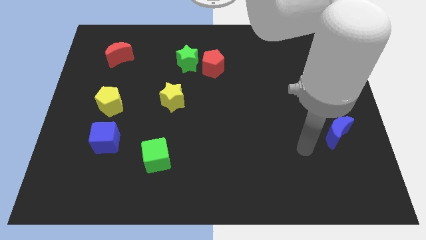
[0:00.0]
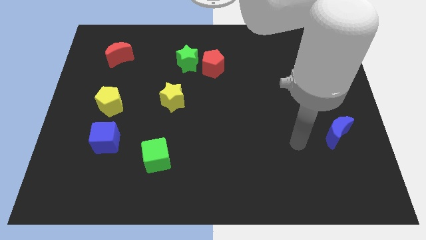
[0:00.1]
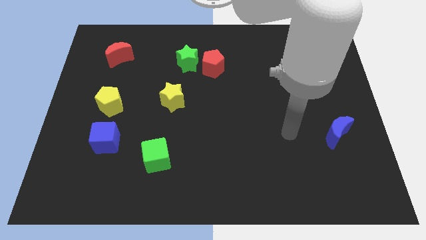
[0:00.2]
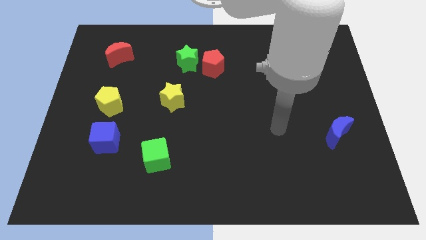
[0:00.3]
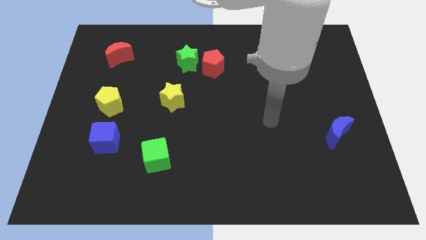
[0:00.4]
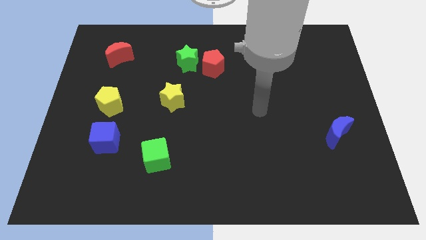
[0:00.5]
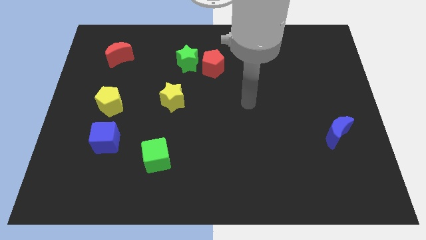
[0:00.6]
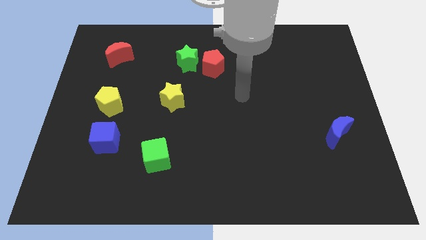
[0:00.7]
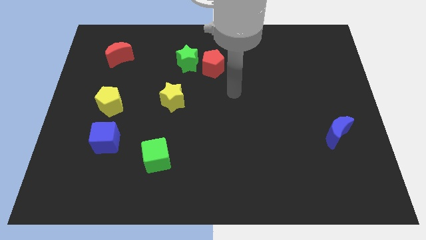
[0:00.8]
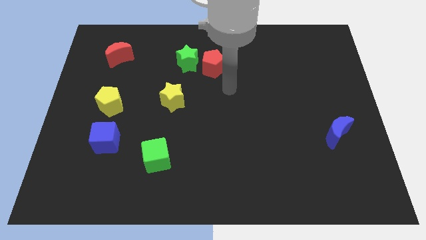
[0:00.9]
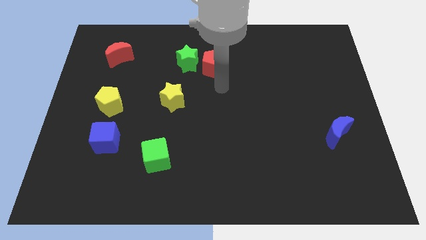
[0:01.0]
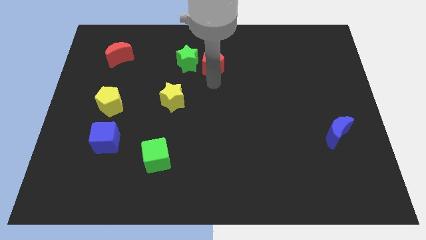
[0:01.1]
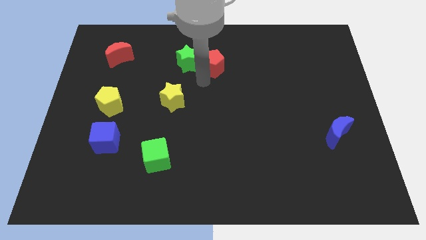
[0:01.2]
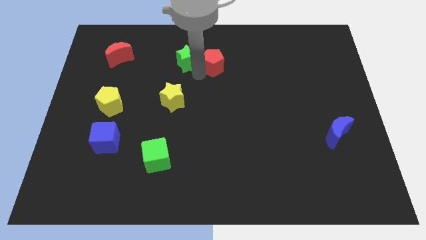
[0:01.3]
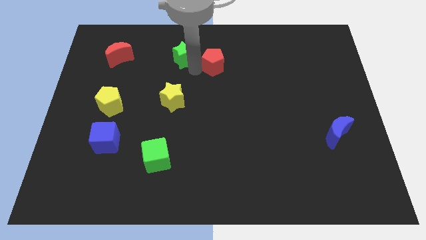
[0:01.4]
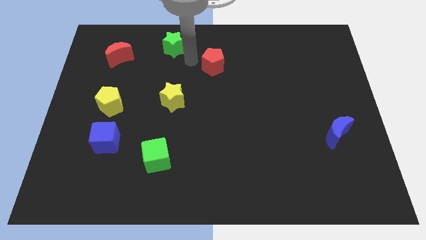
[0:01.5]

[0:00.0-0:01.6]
separate the red pentagon from the green star

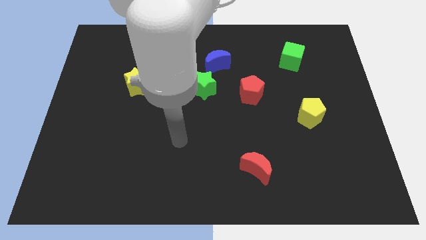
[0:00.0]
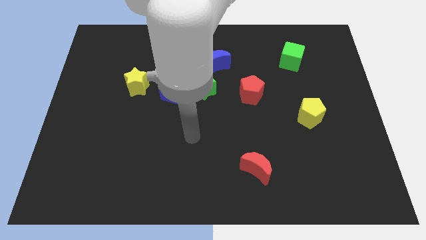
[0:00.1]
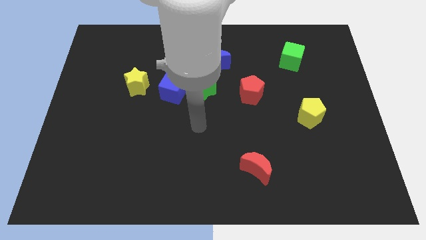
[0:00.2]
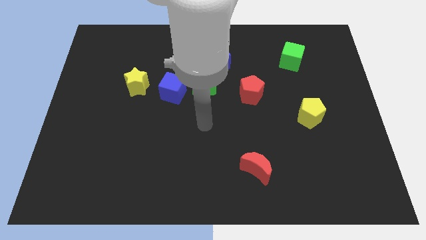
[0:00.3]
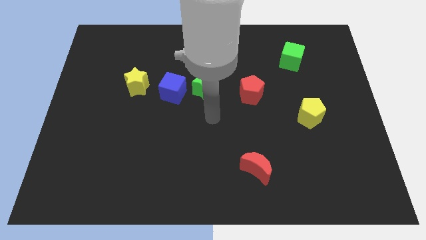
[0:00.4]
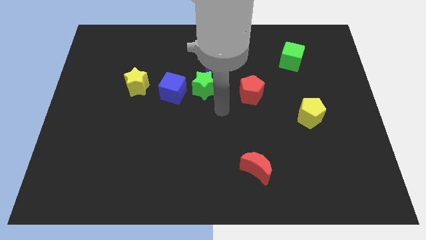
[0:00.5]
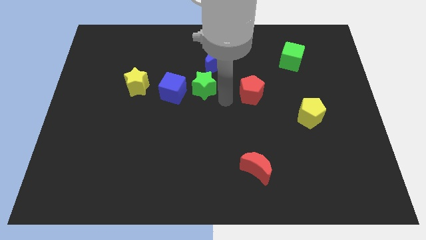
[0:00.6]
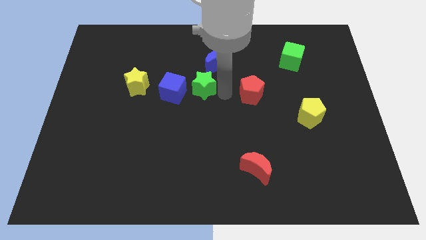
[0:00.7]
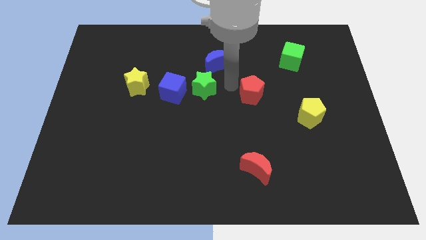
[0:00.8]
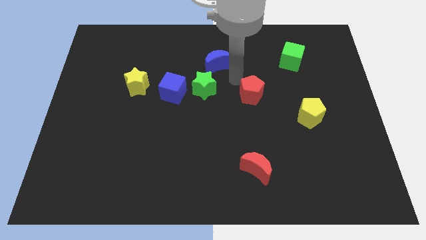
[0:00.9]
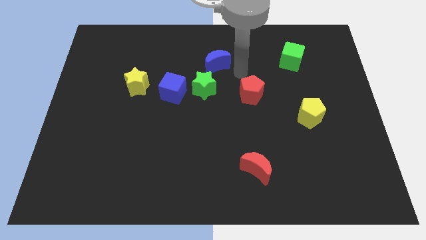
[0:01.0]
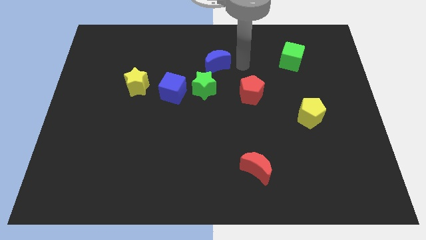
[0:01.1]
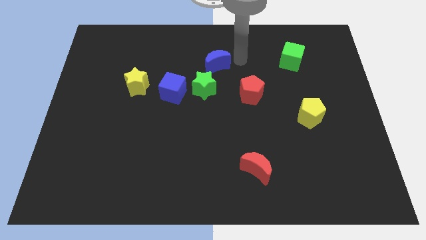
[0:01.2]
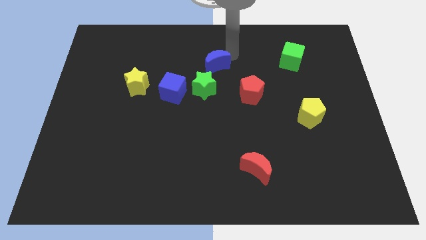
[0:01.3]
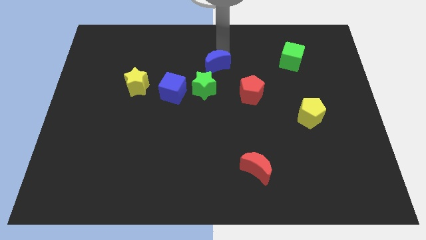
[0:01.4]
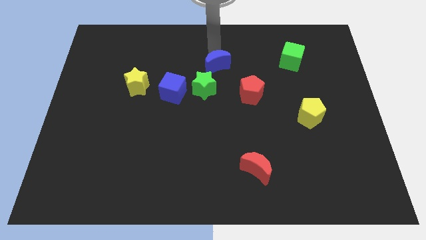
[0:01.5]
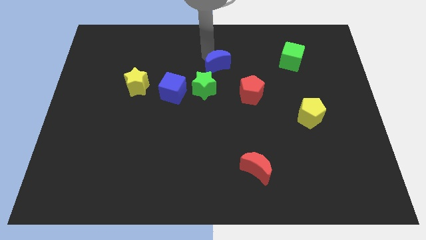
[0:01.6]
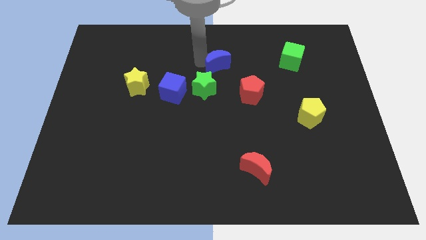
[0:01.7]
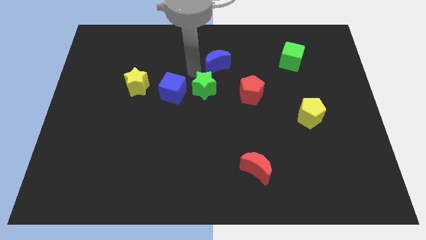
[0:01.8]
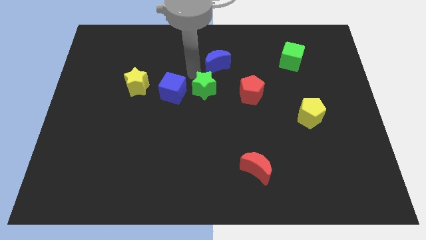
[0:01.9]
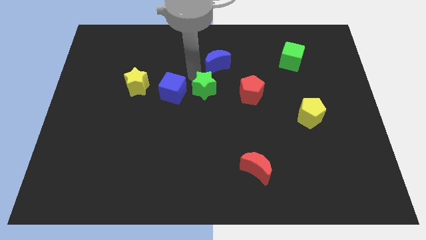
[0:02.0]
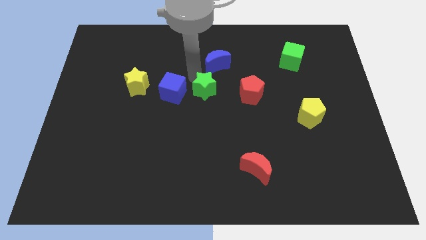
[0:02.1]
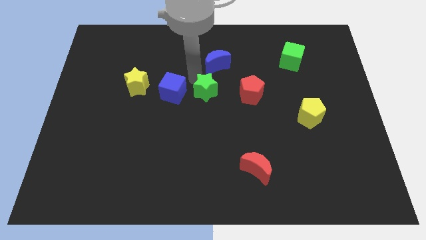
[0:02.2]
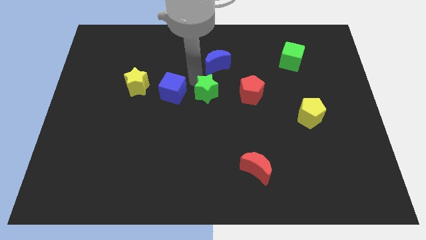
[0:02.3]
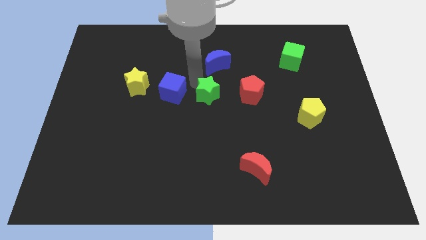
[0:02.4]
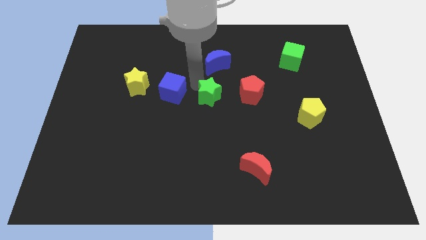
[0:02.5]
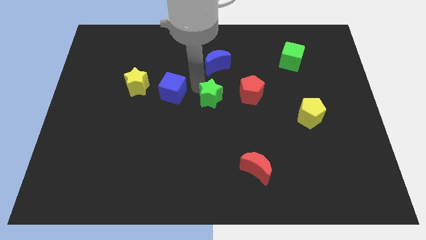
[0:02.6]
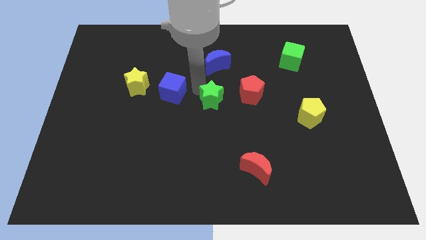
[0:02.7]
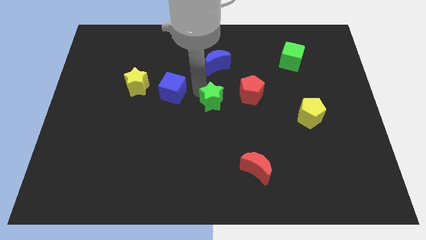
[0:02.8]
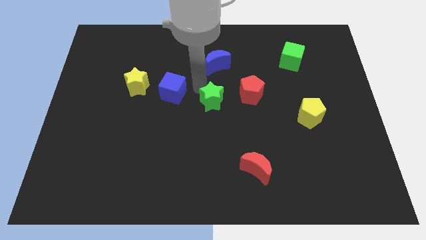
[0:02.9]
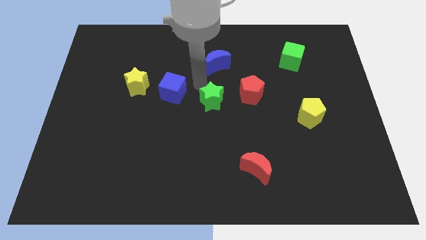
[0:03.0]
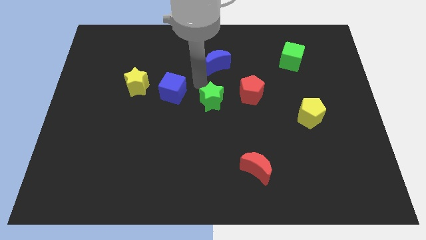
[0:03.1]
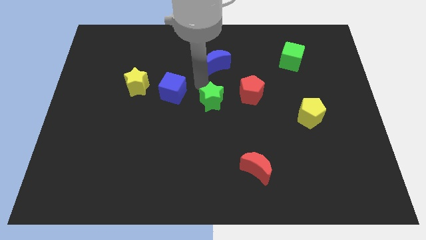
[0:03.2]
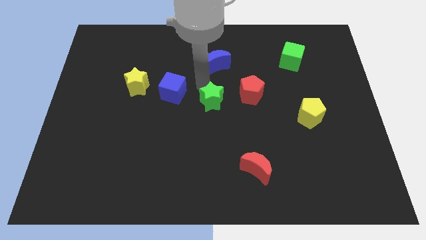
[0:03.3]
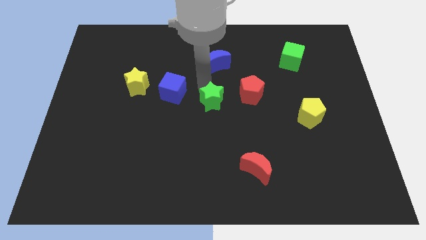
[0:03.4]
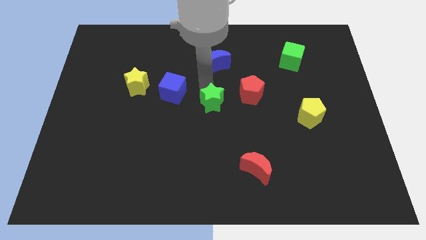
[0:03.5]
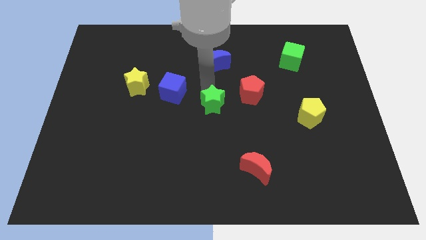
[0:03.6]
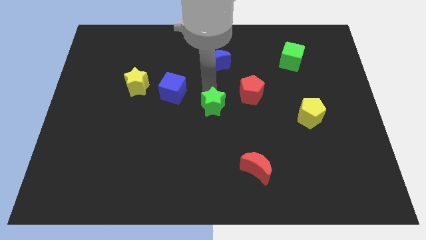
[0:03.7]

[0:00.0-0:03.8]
pull the green star apart from the blue cube and blue moon

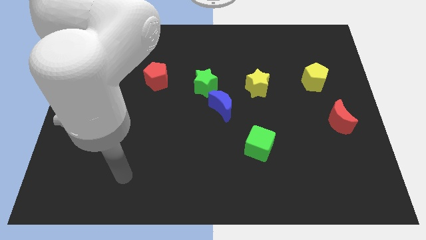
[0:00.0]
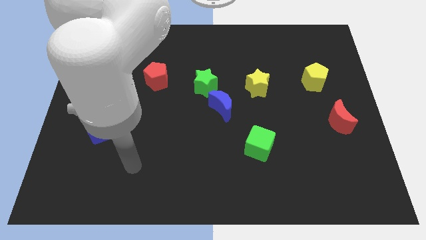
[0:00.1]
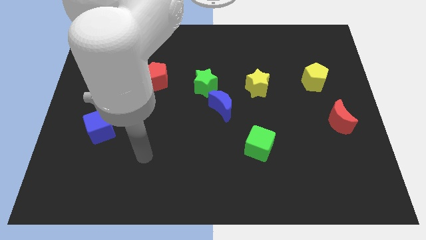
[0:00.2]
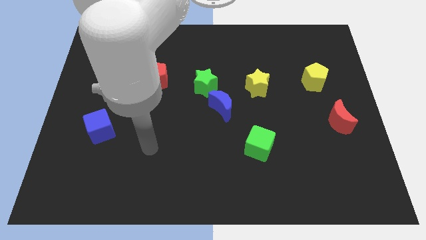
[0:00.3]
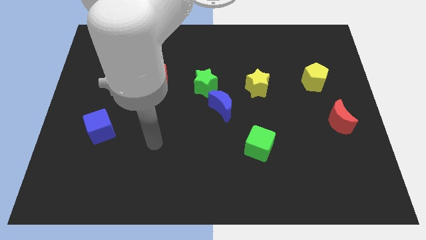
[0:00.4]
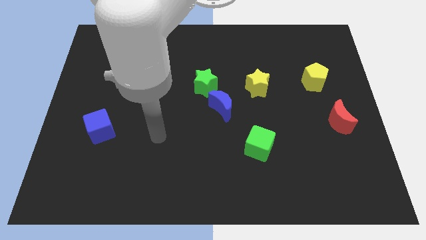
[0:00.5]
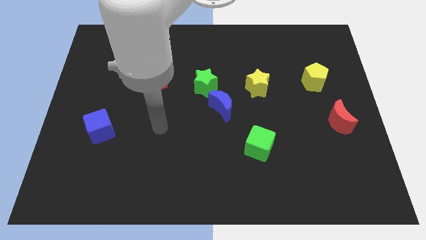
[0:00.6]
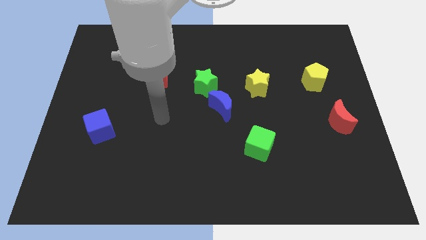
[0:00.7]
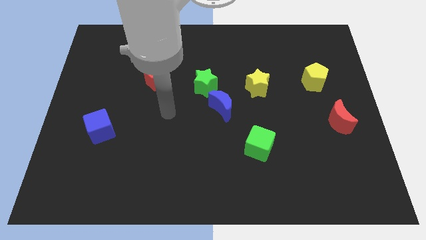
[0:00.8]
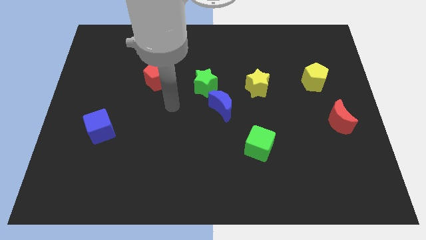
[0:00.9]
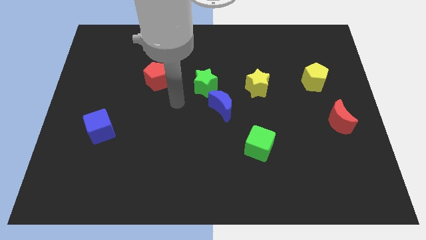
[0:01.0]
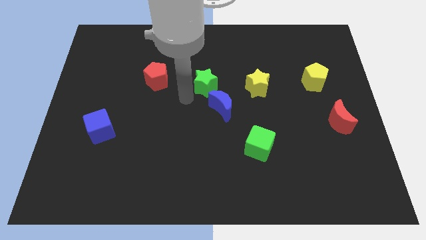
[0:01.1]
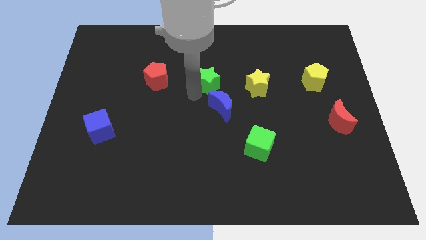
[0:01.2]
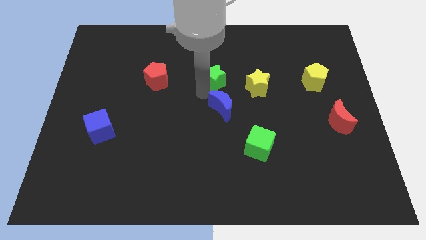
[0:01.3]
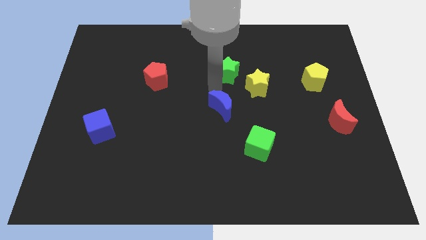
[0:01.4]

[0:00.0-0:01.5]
move the blue moon away from the green star

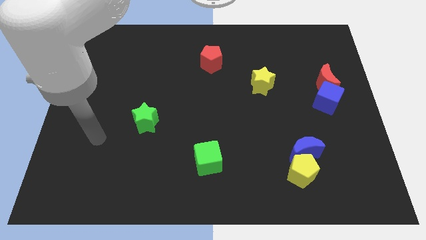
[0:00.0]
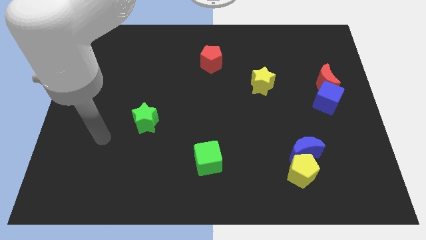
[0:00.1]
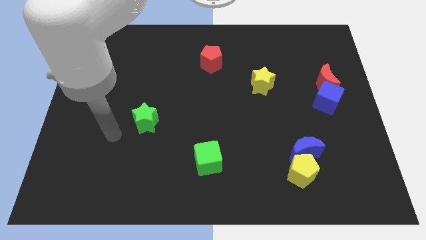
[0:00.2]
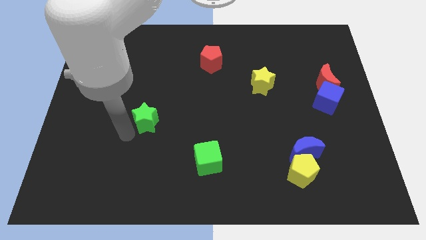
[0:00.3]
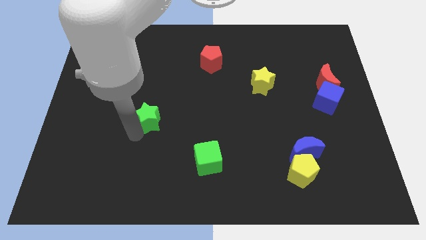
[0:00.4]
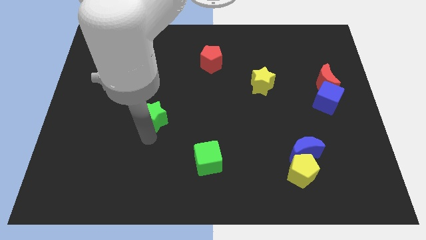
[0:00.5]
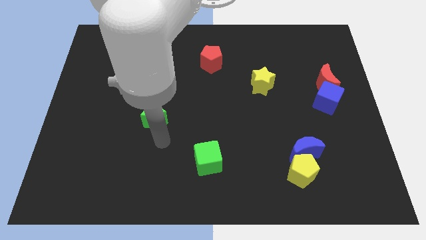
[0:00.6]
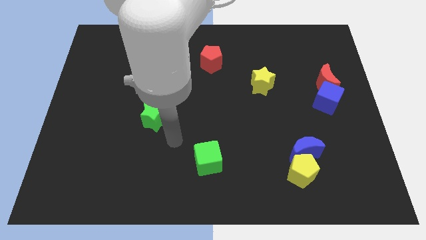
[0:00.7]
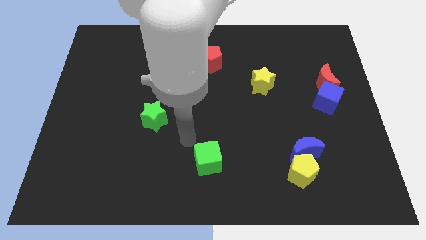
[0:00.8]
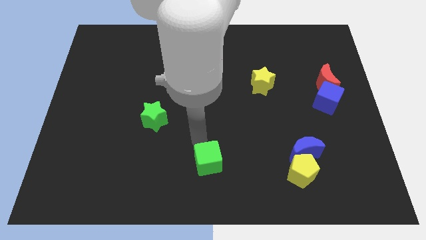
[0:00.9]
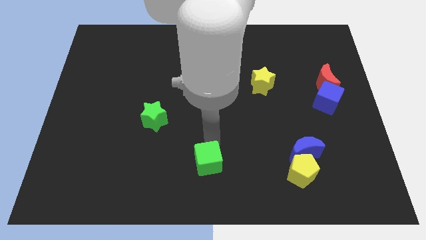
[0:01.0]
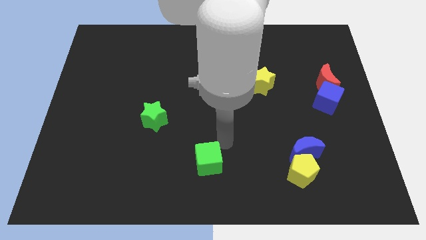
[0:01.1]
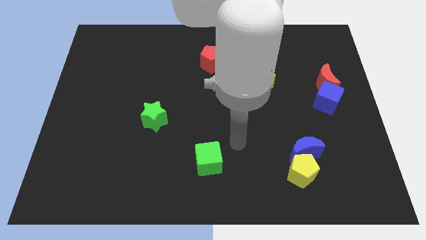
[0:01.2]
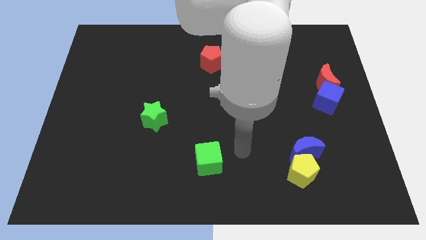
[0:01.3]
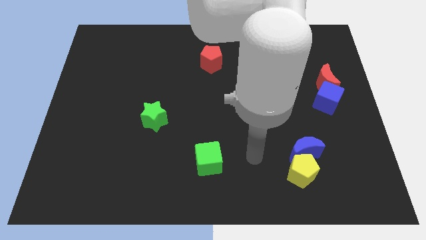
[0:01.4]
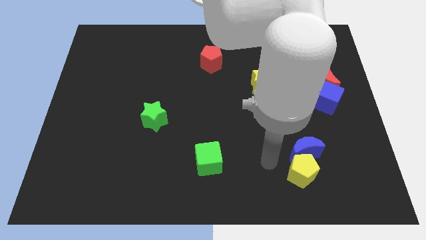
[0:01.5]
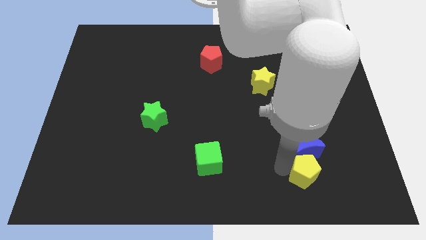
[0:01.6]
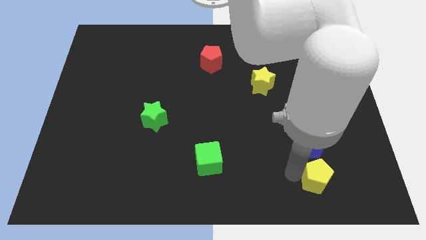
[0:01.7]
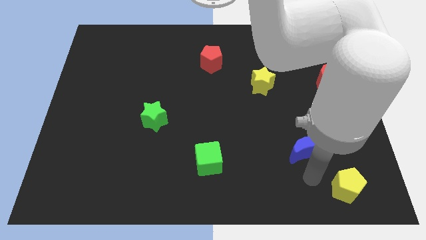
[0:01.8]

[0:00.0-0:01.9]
move the blue moon away from the yellow pentagon

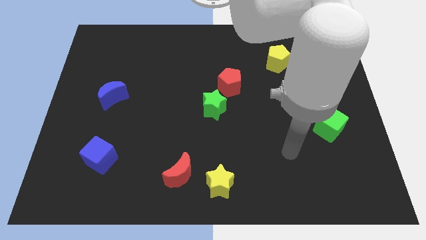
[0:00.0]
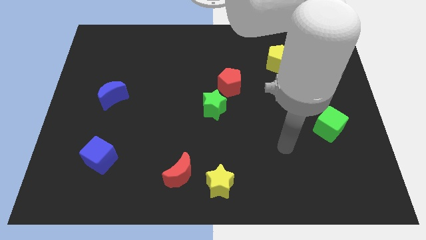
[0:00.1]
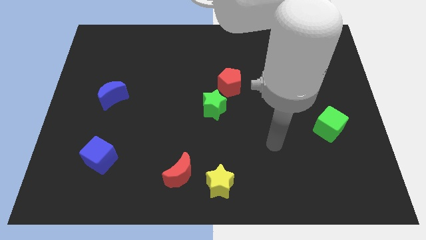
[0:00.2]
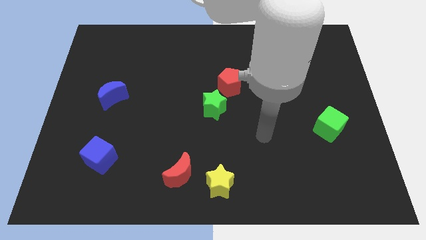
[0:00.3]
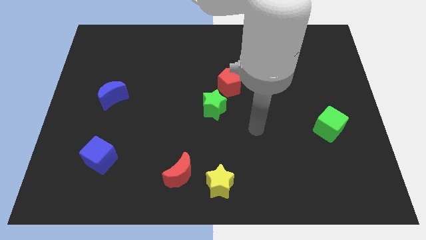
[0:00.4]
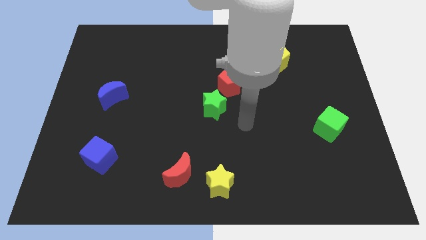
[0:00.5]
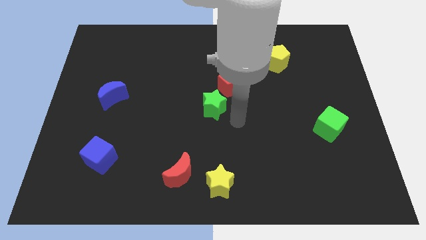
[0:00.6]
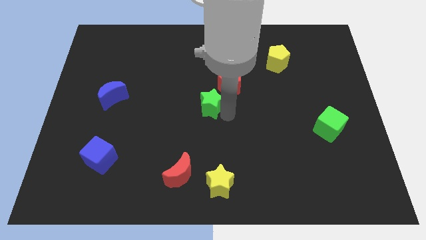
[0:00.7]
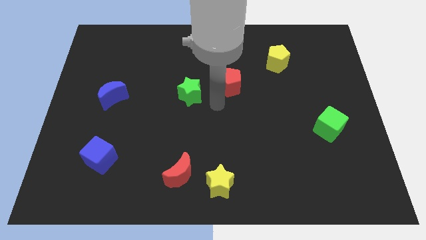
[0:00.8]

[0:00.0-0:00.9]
pull the red pentagon apart from the green star
